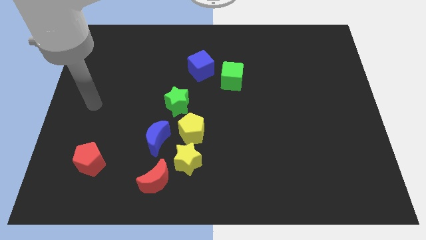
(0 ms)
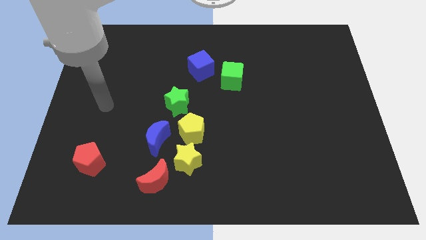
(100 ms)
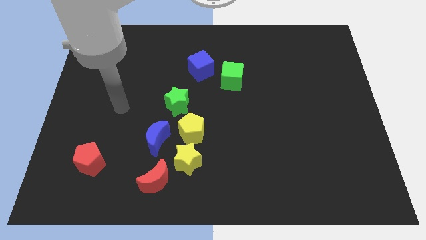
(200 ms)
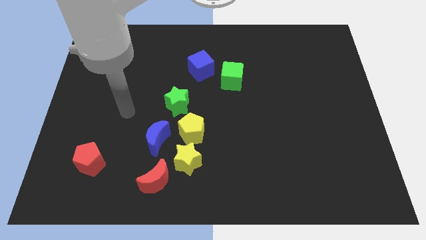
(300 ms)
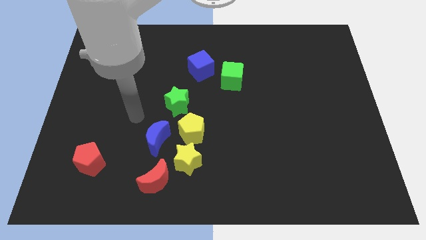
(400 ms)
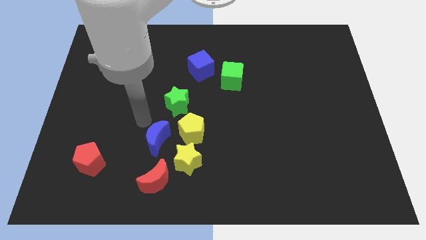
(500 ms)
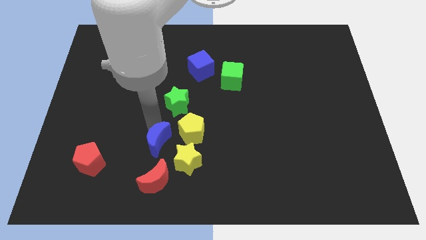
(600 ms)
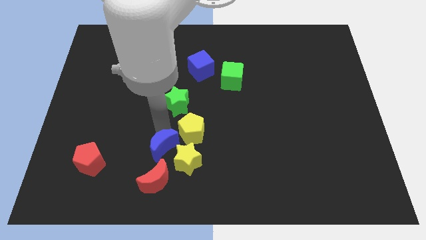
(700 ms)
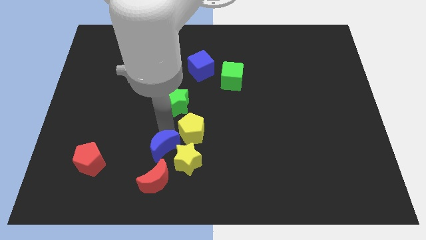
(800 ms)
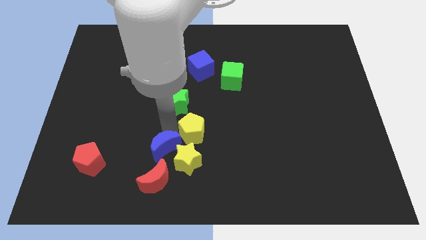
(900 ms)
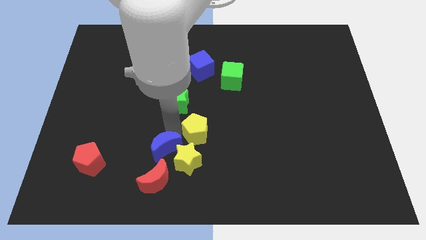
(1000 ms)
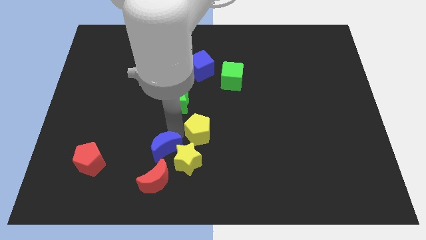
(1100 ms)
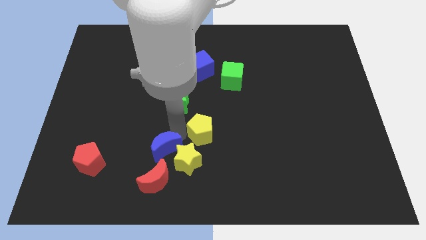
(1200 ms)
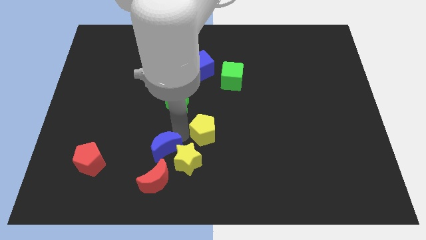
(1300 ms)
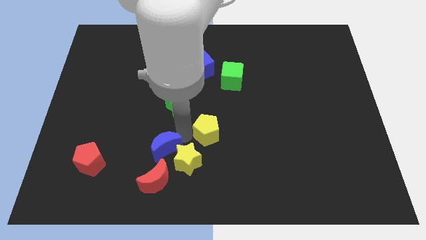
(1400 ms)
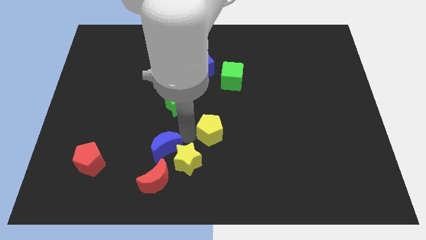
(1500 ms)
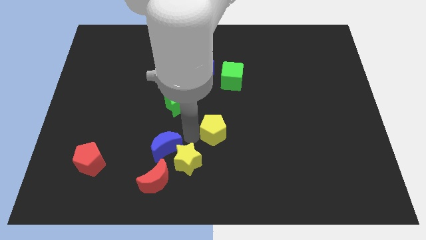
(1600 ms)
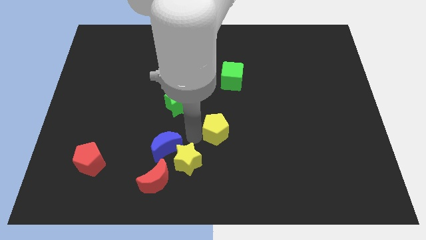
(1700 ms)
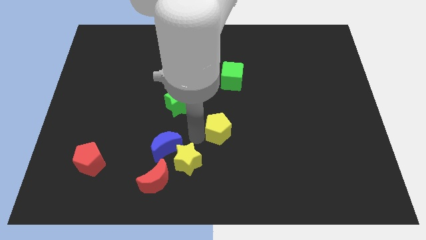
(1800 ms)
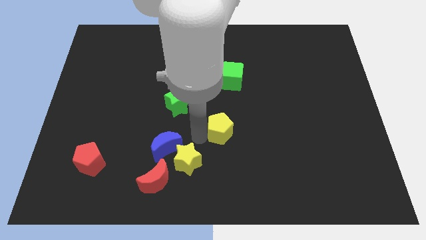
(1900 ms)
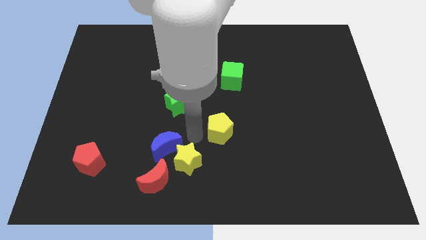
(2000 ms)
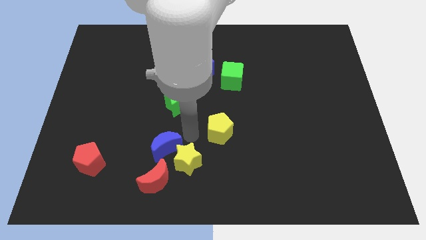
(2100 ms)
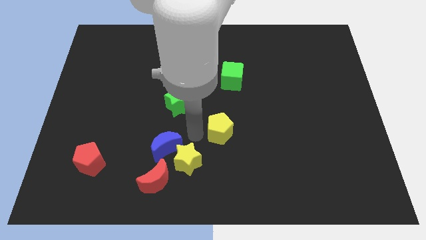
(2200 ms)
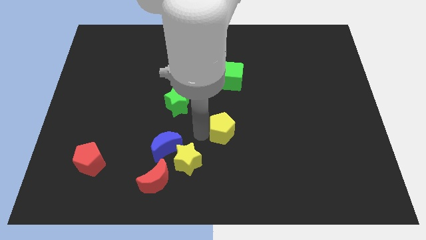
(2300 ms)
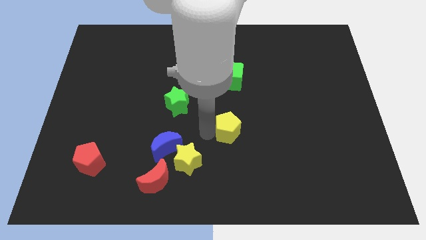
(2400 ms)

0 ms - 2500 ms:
move the yellow pentagon away from the yellow star, blue moon, and green star

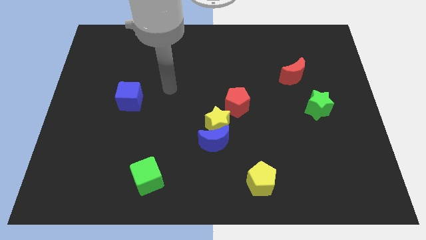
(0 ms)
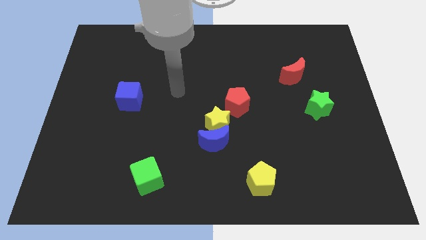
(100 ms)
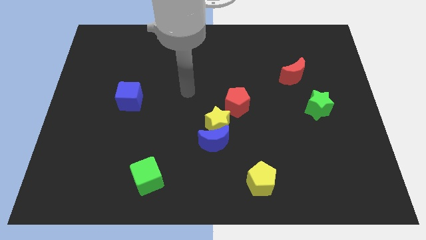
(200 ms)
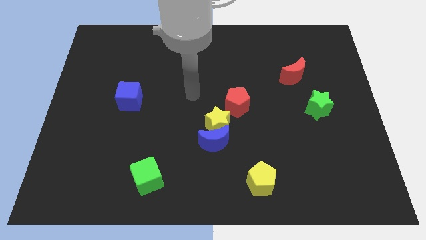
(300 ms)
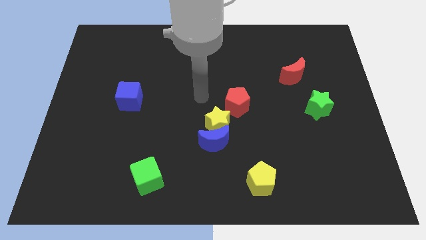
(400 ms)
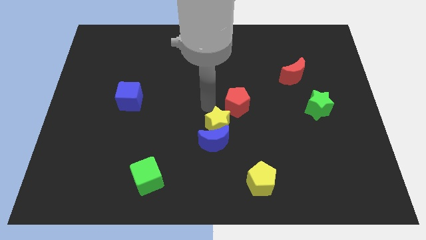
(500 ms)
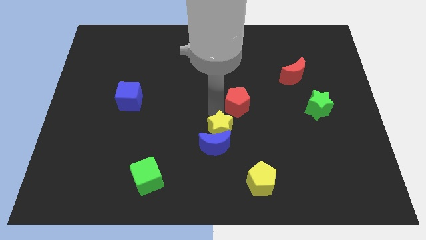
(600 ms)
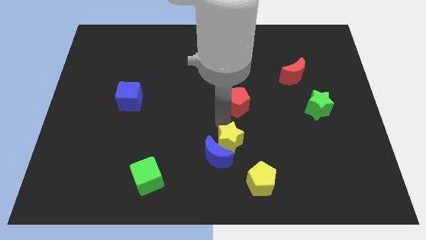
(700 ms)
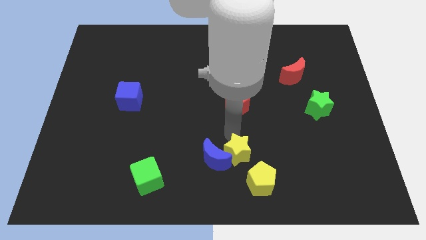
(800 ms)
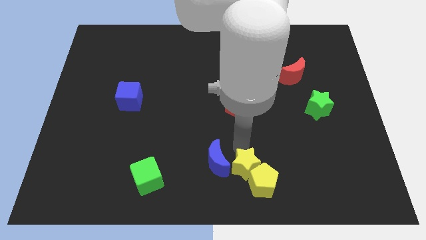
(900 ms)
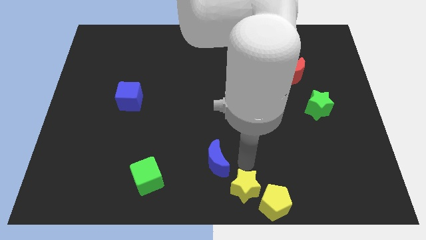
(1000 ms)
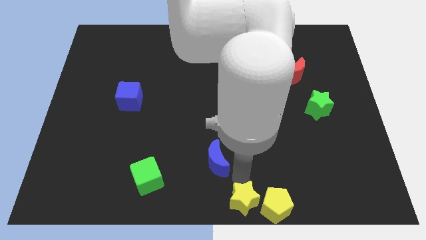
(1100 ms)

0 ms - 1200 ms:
pull the blue moon apart from the yellow star

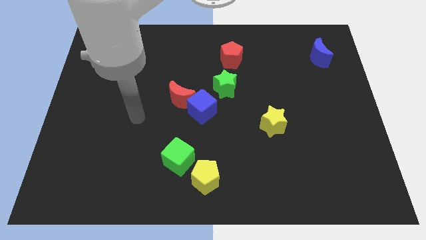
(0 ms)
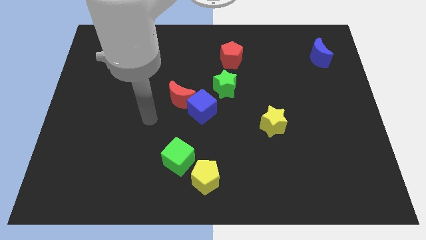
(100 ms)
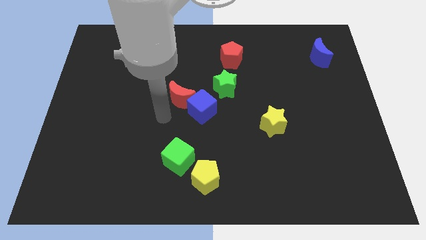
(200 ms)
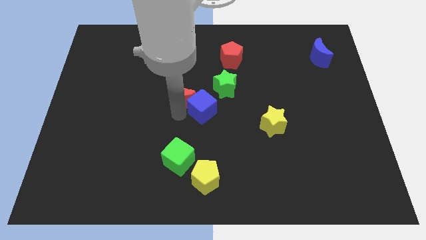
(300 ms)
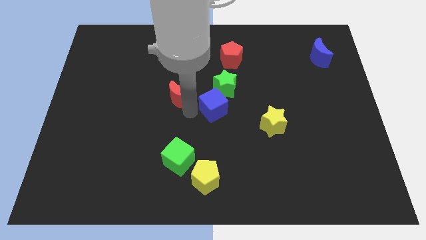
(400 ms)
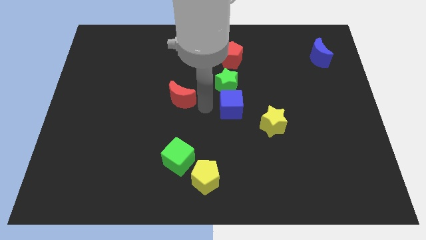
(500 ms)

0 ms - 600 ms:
pull the red moon apart from the blue cube

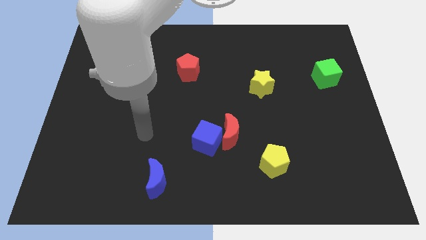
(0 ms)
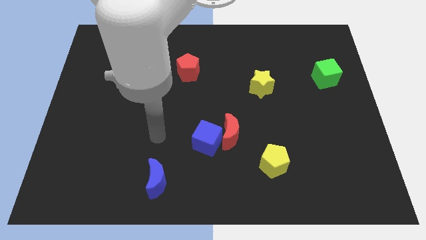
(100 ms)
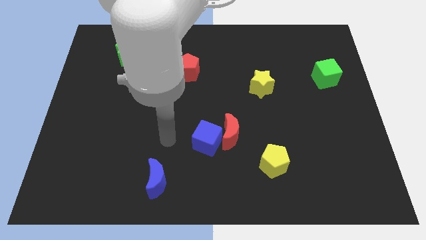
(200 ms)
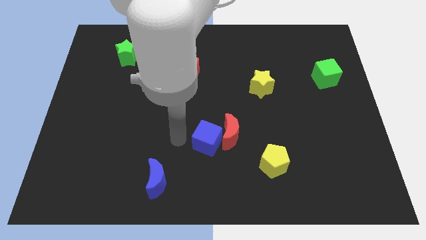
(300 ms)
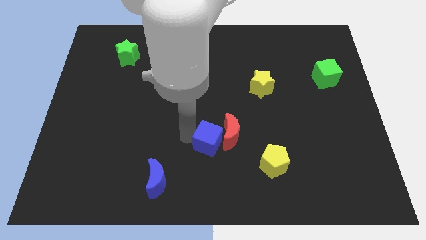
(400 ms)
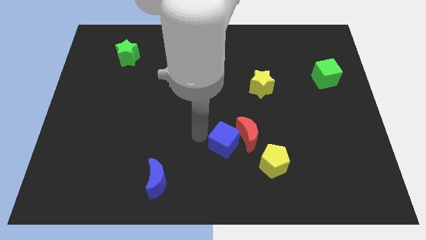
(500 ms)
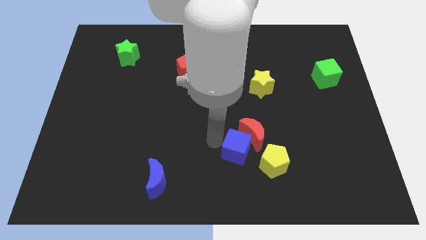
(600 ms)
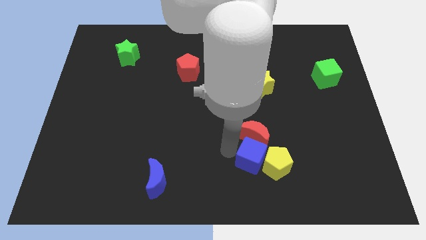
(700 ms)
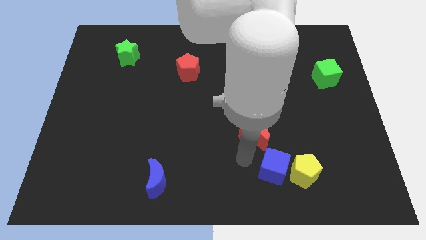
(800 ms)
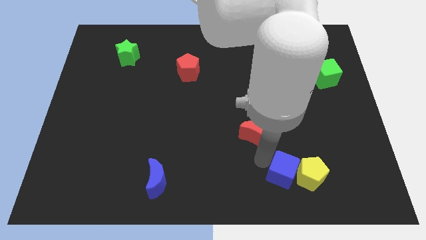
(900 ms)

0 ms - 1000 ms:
separate the red moon from the blue cube

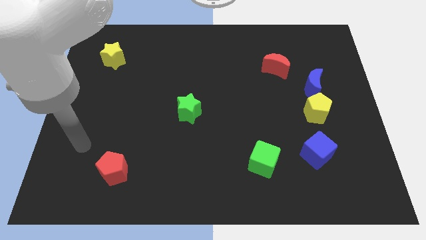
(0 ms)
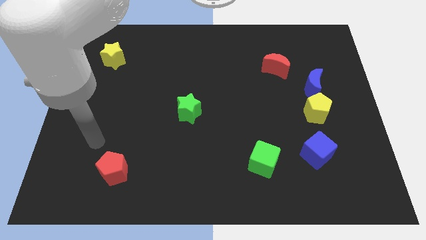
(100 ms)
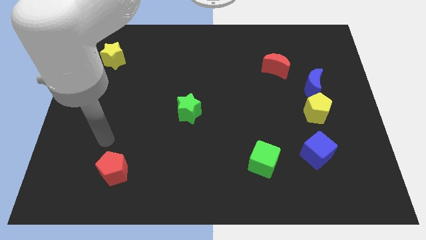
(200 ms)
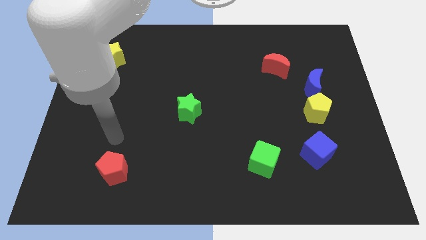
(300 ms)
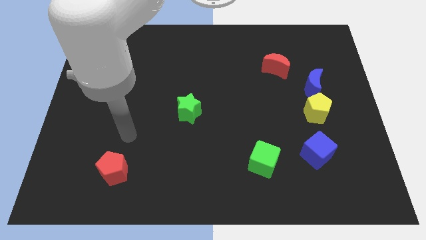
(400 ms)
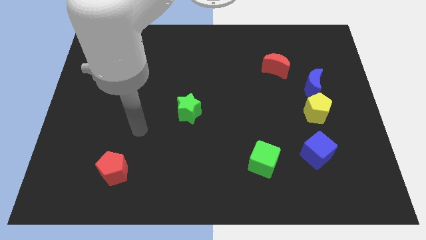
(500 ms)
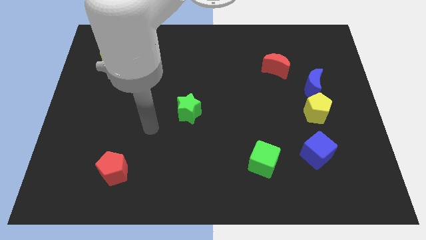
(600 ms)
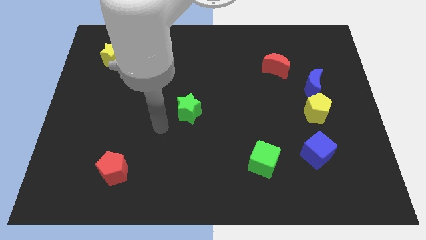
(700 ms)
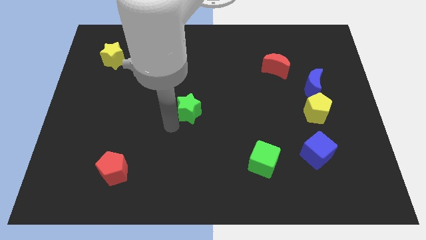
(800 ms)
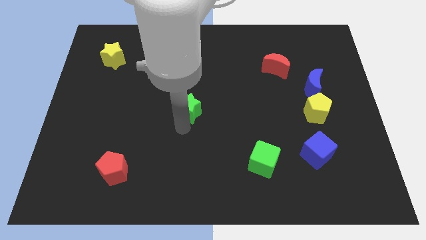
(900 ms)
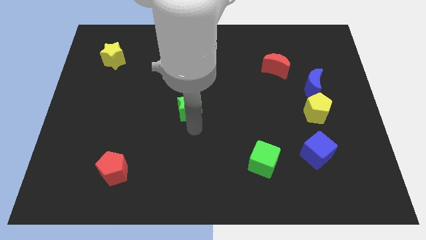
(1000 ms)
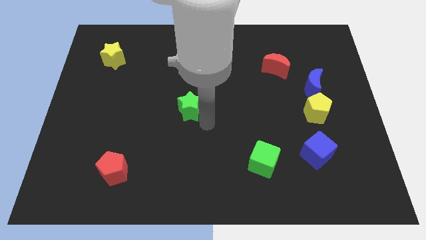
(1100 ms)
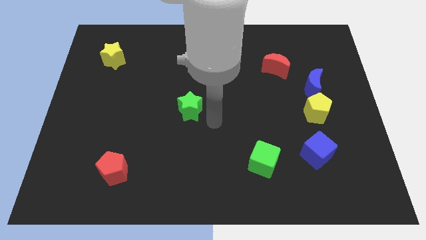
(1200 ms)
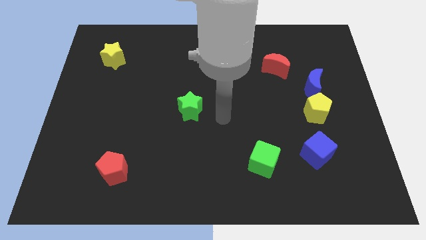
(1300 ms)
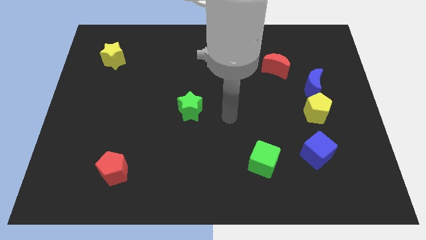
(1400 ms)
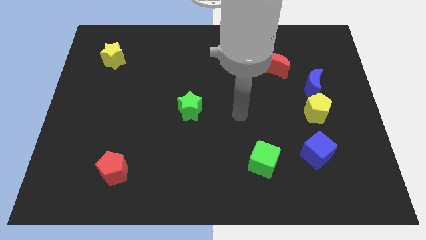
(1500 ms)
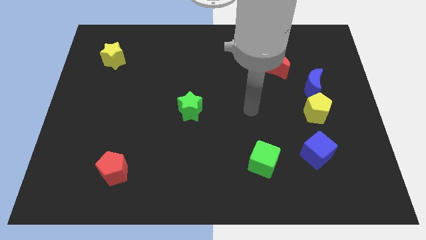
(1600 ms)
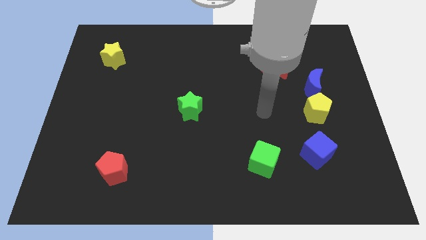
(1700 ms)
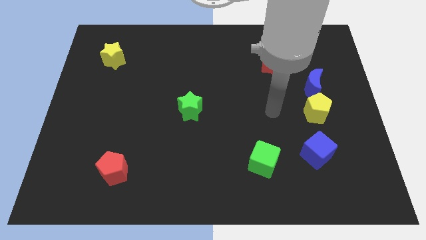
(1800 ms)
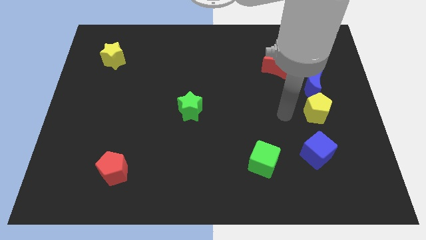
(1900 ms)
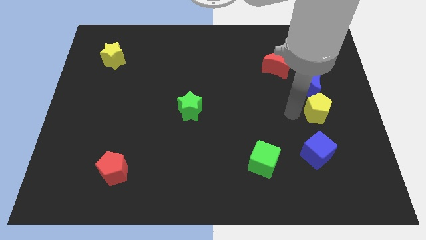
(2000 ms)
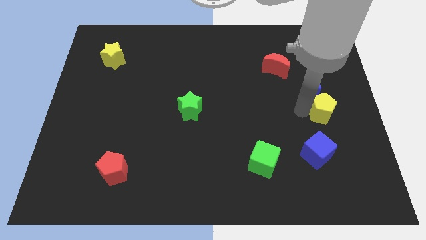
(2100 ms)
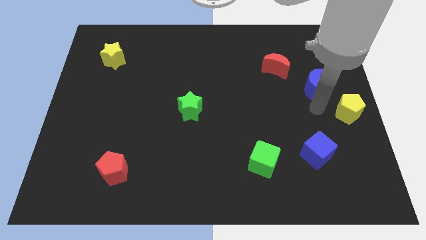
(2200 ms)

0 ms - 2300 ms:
move the blue moon away from the yellow pentagon

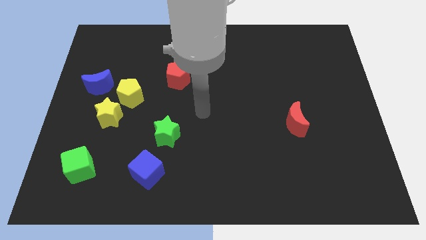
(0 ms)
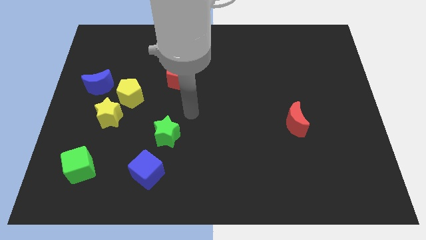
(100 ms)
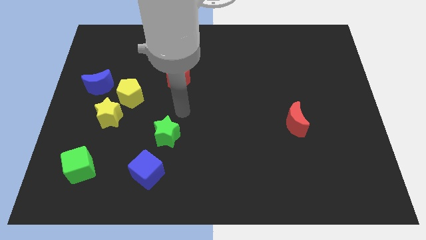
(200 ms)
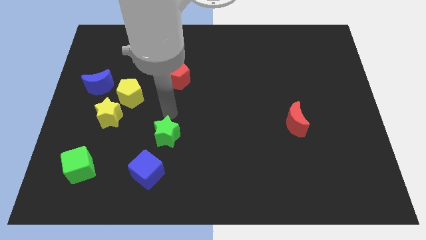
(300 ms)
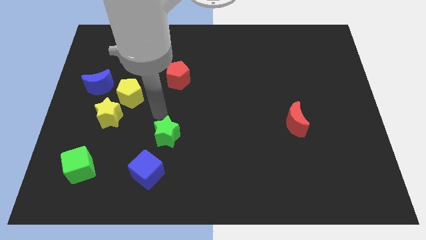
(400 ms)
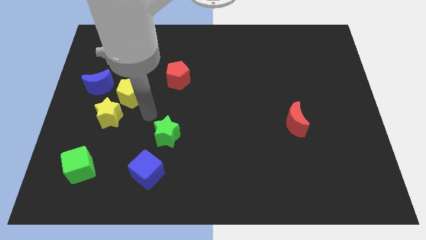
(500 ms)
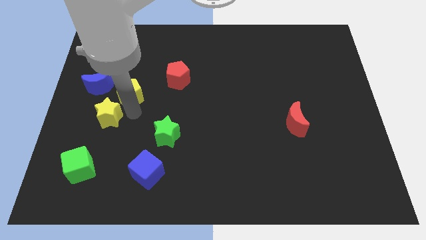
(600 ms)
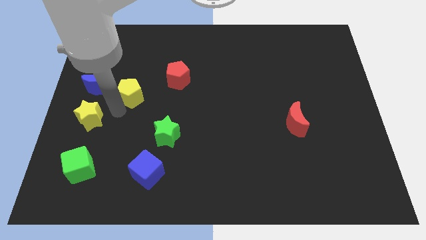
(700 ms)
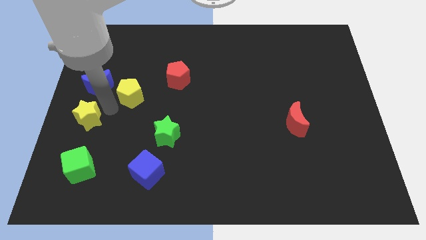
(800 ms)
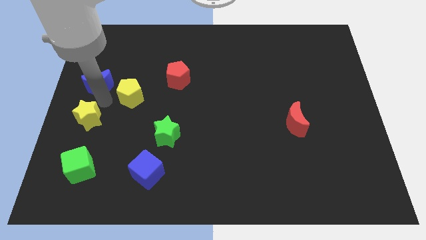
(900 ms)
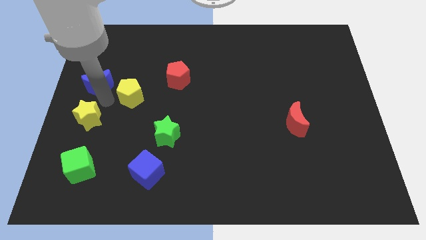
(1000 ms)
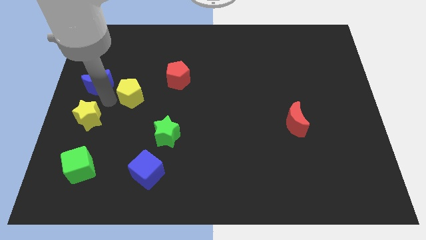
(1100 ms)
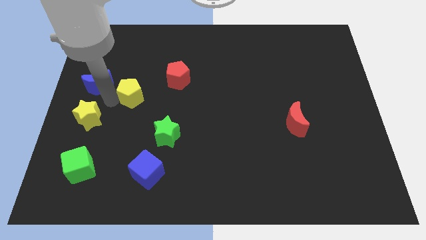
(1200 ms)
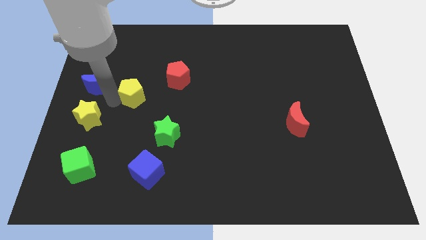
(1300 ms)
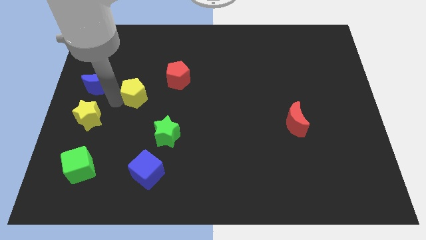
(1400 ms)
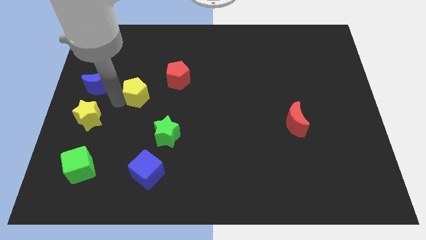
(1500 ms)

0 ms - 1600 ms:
move the yellow pentagon away from the yellow star and blue moon
